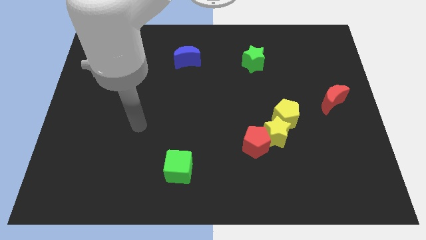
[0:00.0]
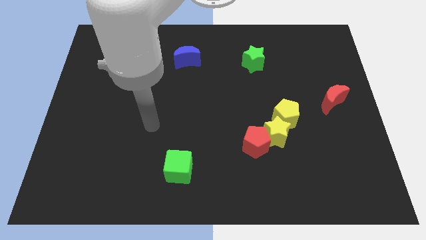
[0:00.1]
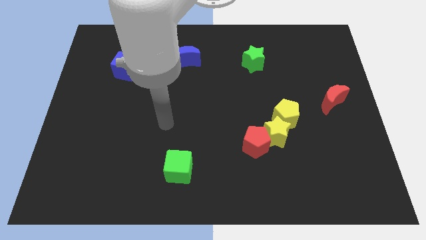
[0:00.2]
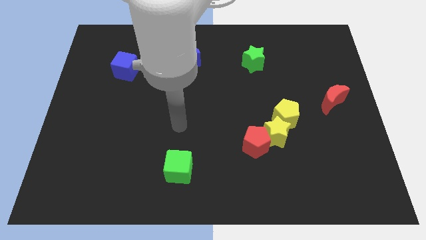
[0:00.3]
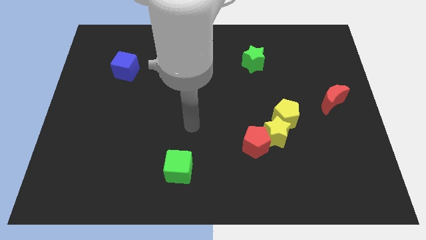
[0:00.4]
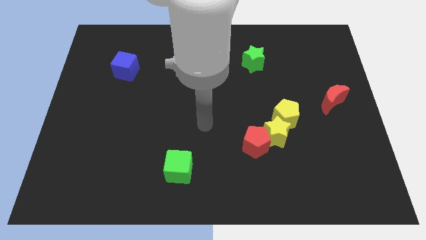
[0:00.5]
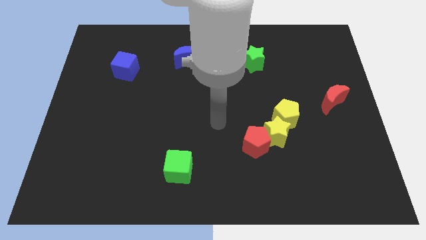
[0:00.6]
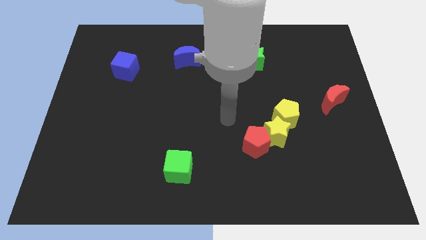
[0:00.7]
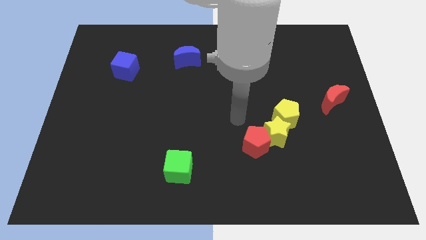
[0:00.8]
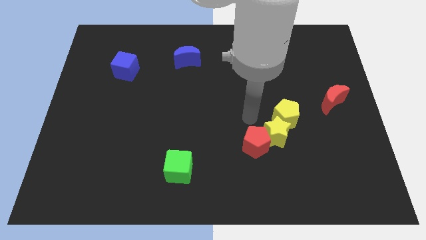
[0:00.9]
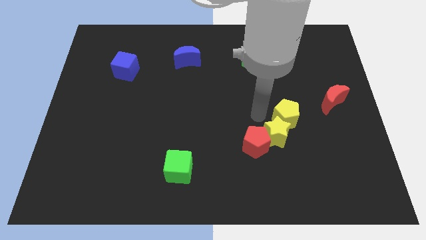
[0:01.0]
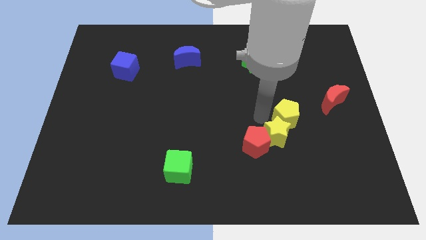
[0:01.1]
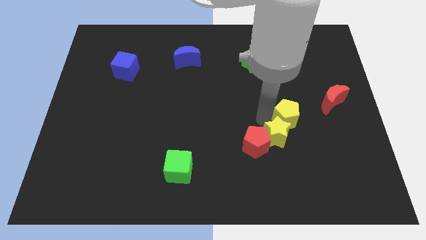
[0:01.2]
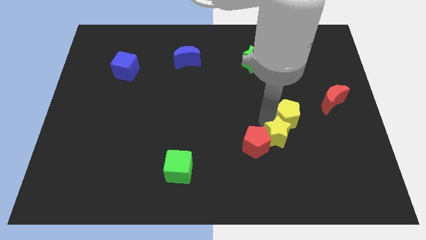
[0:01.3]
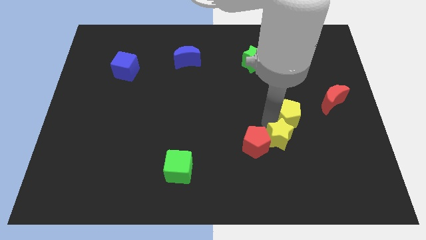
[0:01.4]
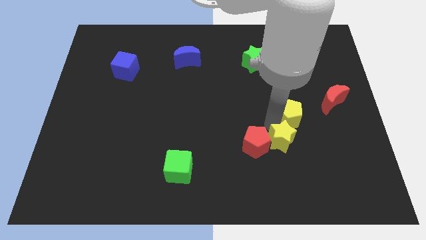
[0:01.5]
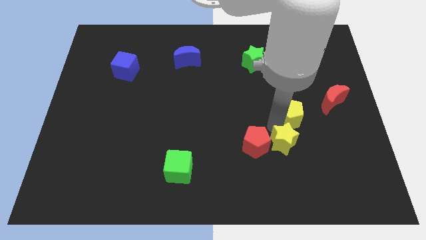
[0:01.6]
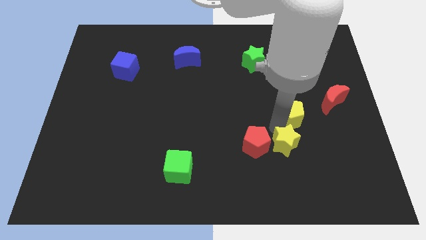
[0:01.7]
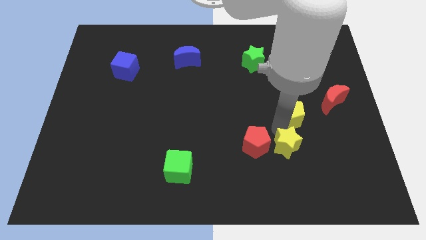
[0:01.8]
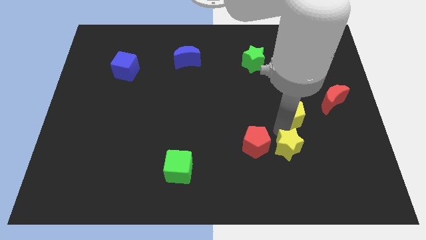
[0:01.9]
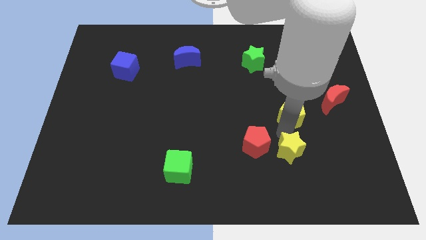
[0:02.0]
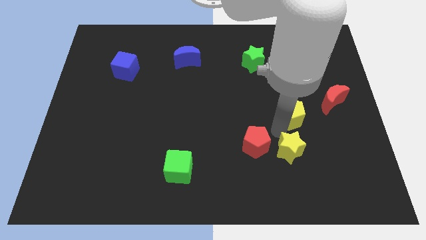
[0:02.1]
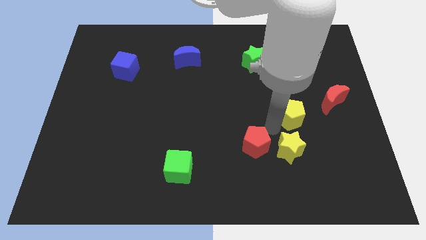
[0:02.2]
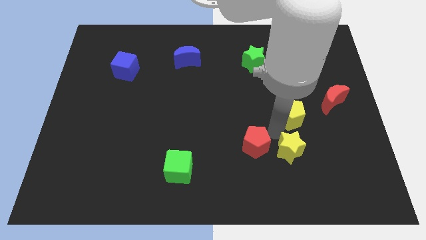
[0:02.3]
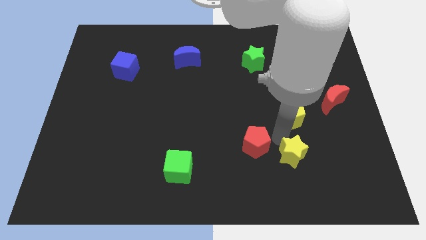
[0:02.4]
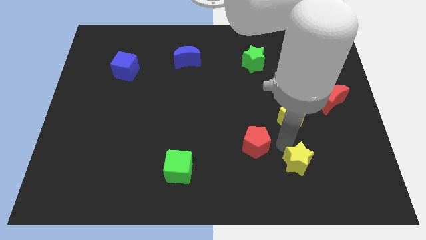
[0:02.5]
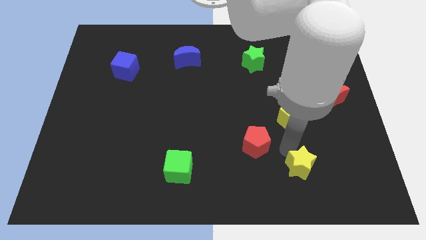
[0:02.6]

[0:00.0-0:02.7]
pull the yellow star apart from the red pentagon and yellow pentagon

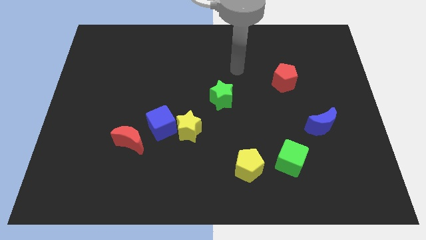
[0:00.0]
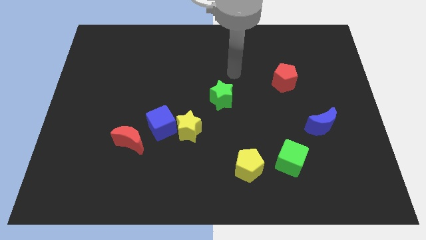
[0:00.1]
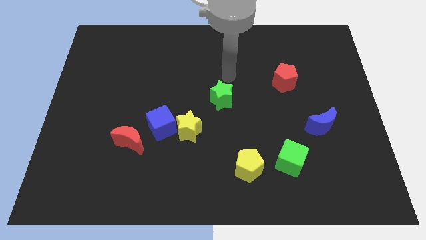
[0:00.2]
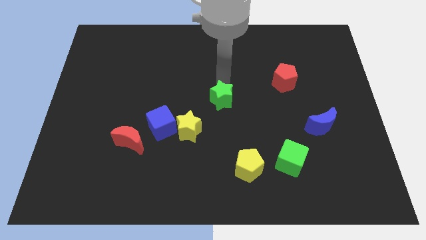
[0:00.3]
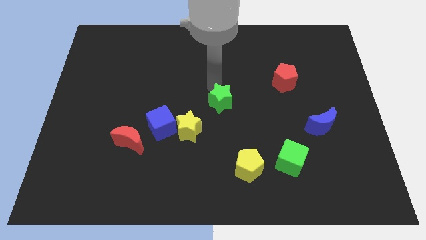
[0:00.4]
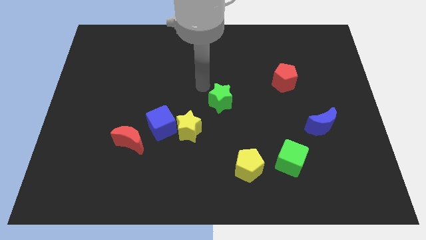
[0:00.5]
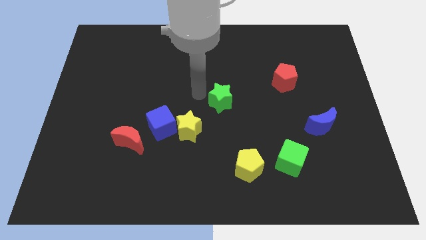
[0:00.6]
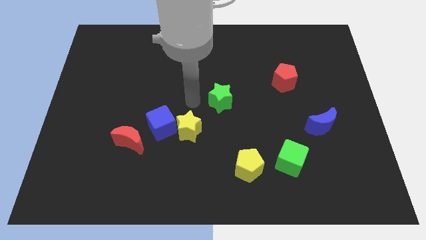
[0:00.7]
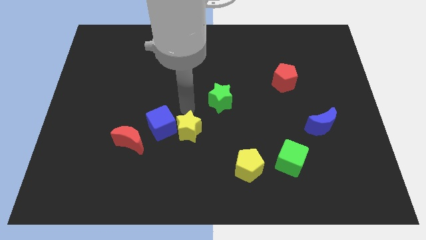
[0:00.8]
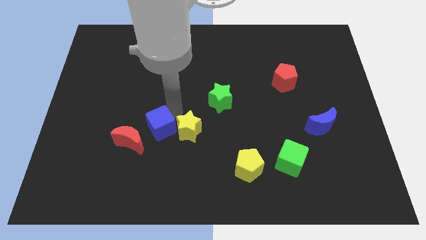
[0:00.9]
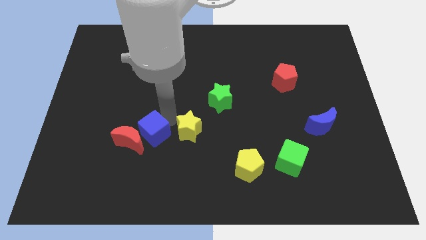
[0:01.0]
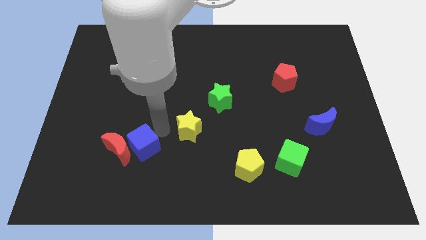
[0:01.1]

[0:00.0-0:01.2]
move the yellow star away from the blue cube

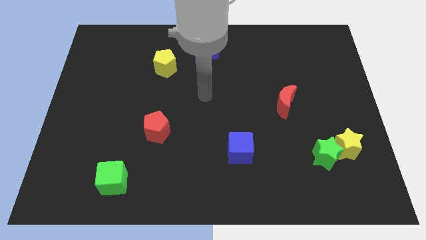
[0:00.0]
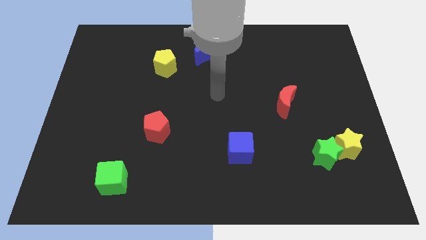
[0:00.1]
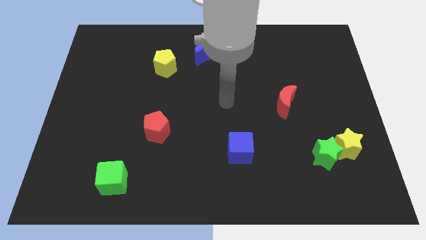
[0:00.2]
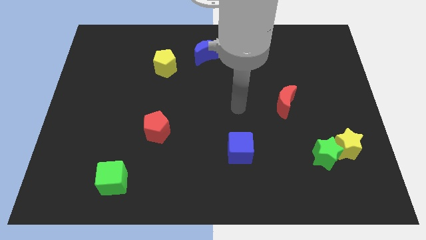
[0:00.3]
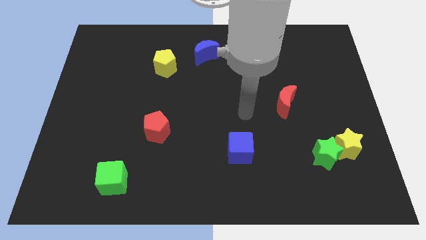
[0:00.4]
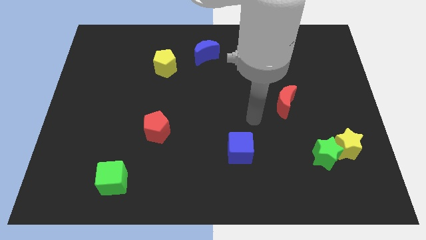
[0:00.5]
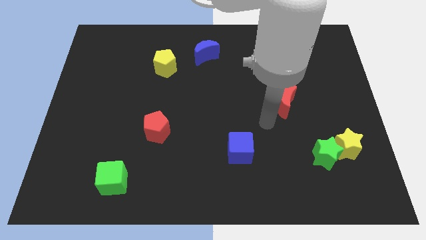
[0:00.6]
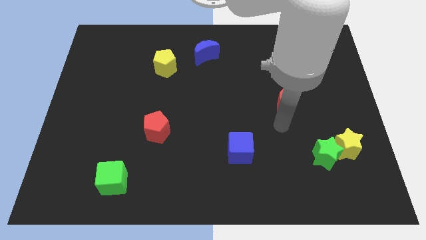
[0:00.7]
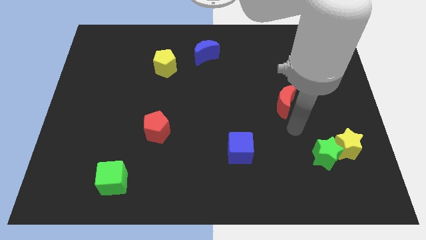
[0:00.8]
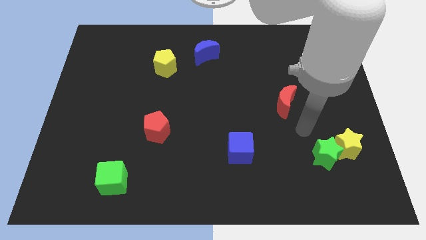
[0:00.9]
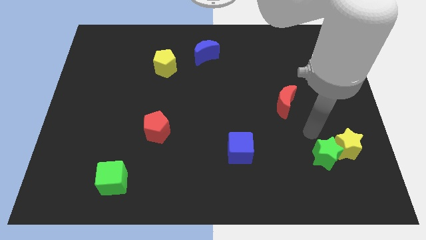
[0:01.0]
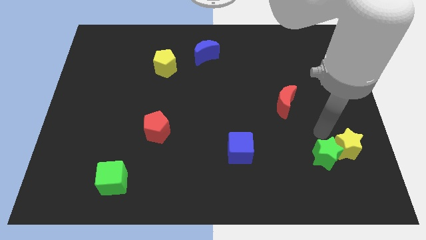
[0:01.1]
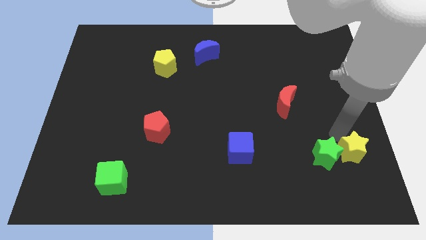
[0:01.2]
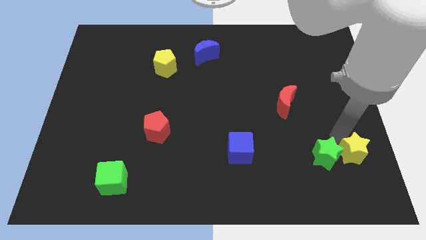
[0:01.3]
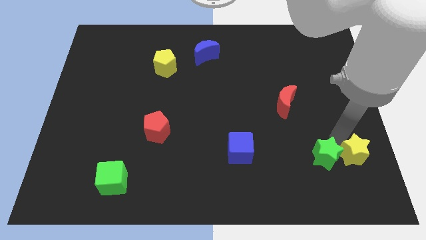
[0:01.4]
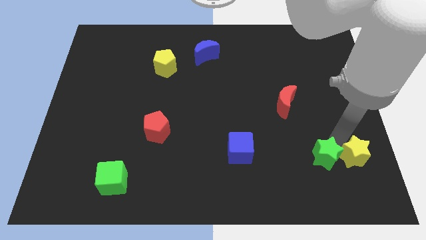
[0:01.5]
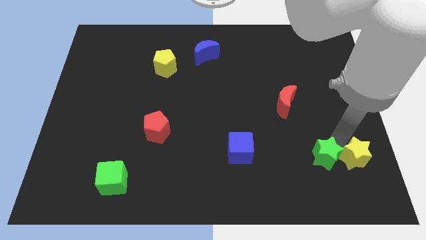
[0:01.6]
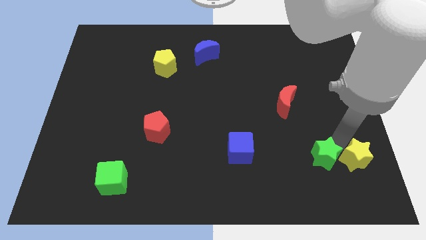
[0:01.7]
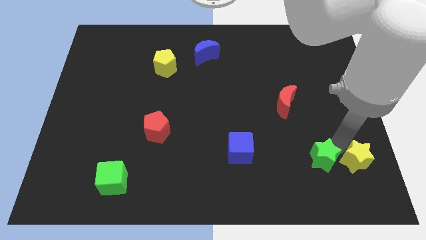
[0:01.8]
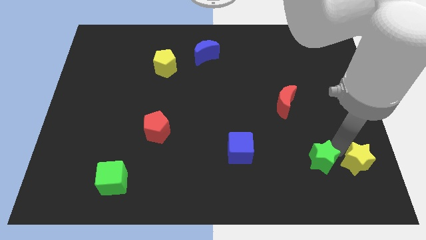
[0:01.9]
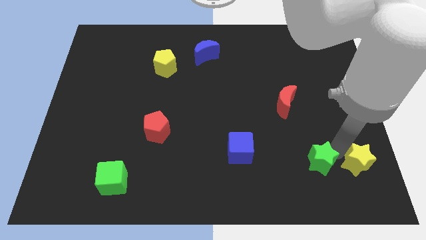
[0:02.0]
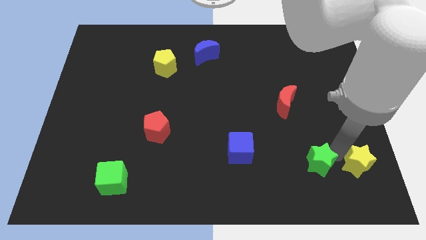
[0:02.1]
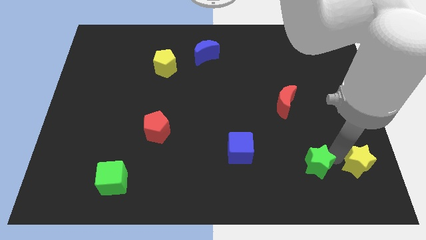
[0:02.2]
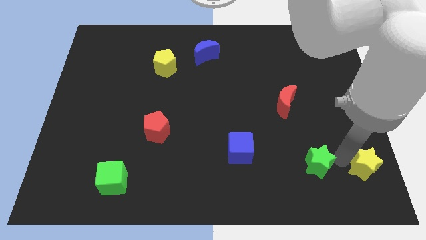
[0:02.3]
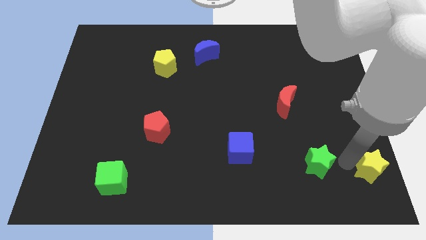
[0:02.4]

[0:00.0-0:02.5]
pull the green star apart from the yellow star

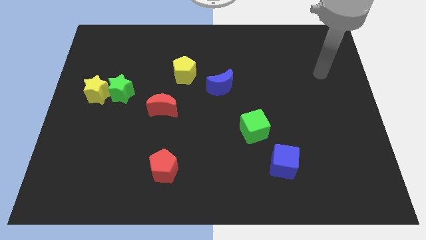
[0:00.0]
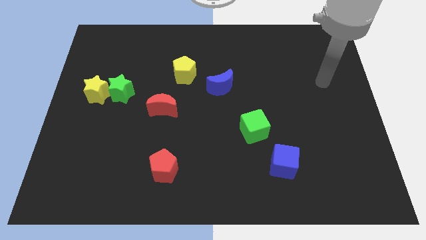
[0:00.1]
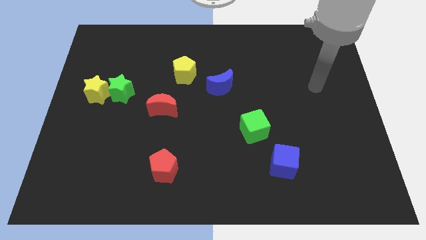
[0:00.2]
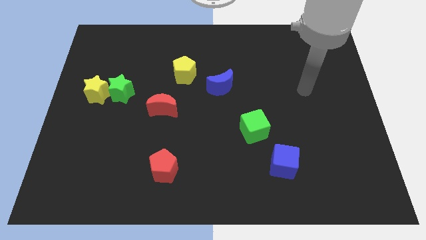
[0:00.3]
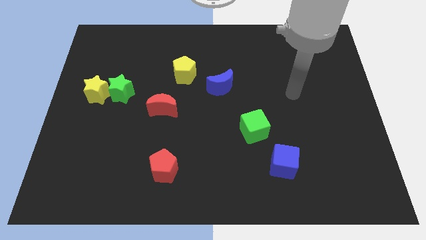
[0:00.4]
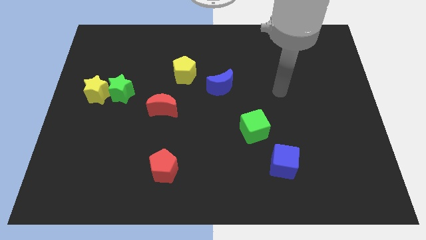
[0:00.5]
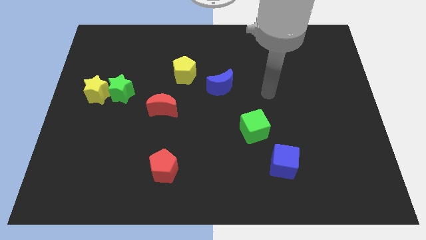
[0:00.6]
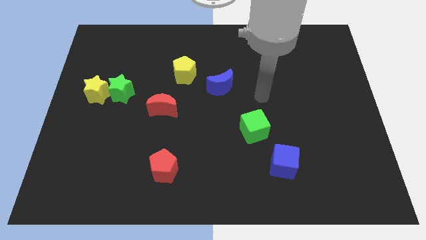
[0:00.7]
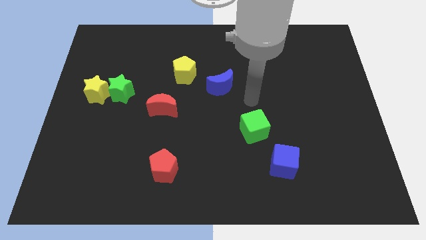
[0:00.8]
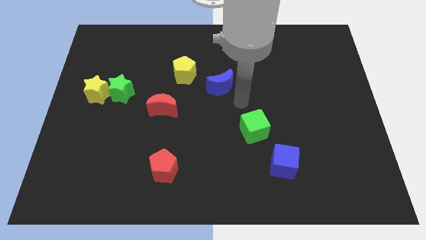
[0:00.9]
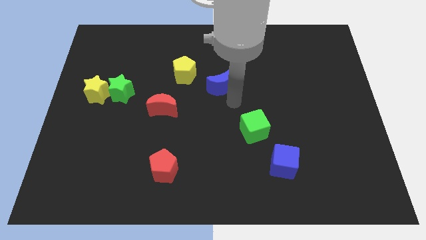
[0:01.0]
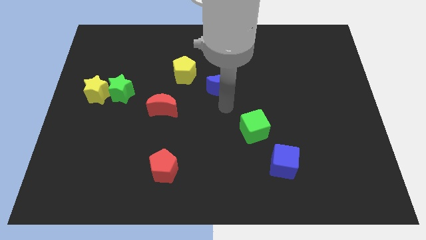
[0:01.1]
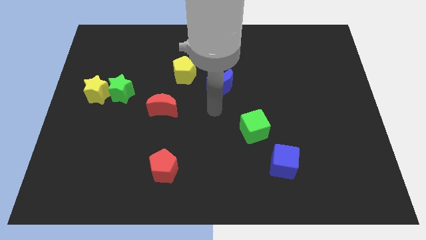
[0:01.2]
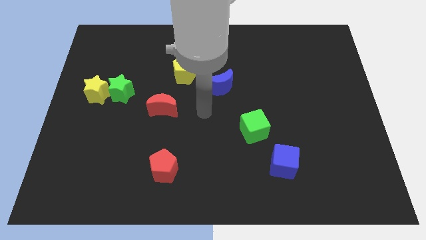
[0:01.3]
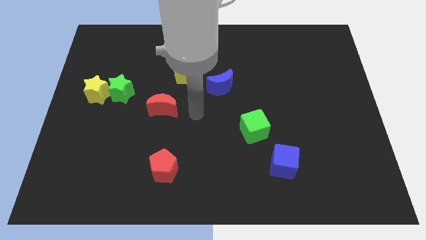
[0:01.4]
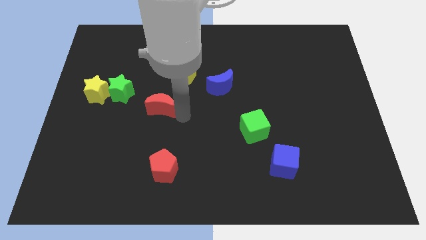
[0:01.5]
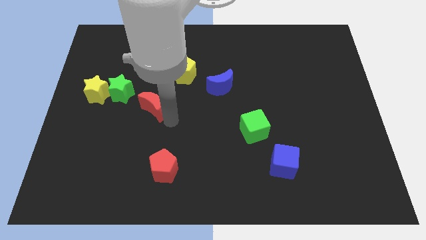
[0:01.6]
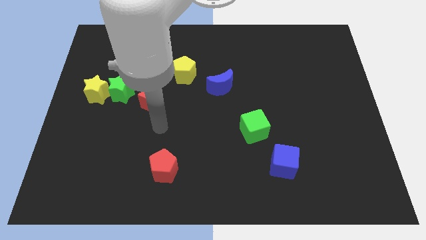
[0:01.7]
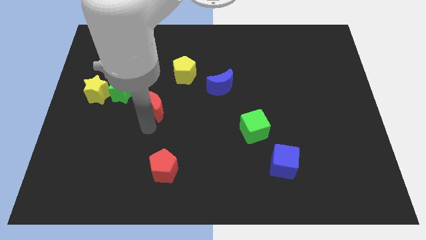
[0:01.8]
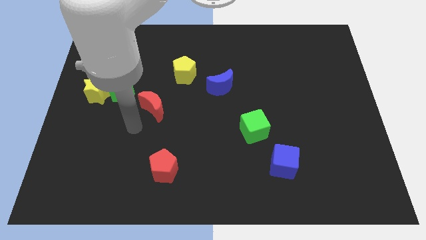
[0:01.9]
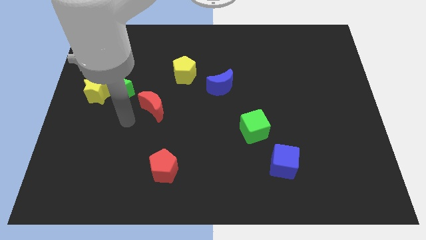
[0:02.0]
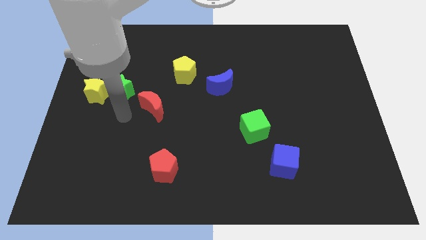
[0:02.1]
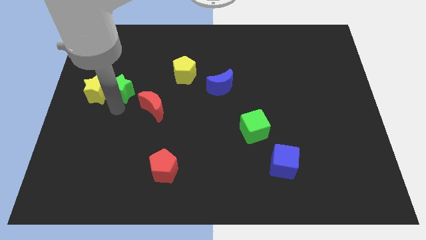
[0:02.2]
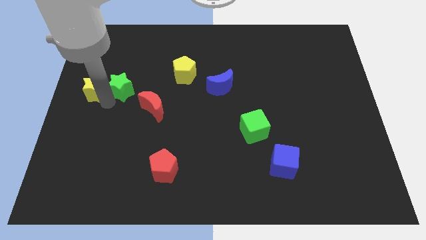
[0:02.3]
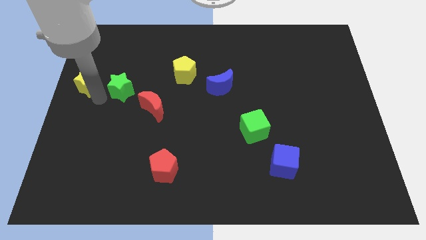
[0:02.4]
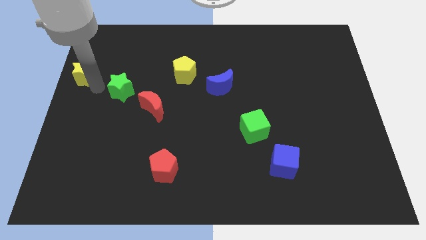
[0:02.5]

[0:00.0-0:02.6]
move the green star away from the yellow star

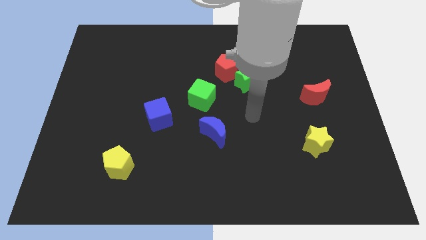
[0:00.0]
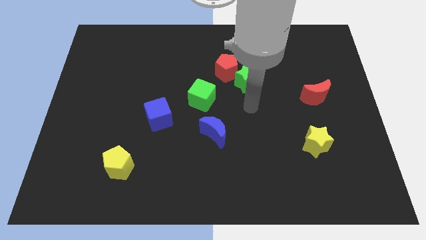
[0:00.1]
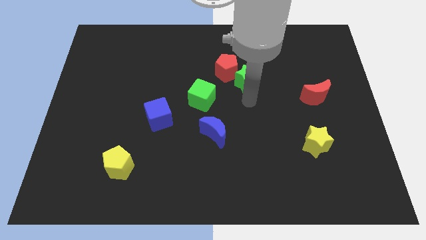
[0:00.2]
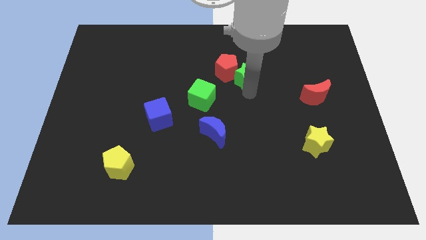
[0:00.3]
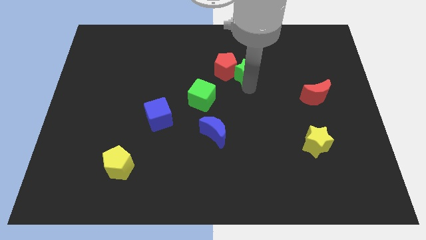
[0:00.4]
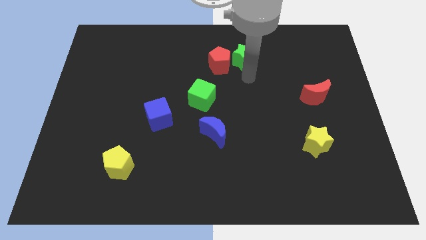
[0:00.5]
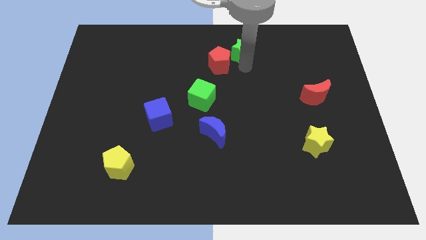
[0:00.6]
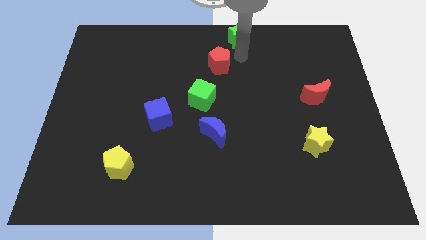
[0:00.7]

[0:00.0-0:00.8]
move the red pentagon away from the green star
